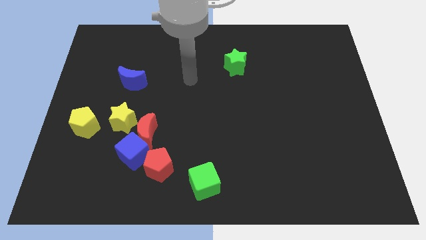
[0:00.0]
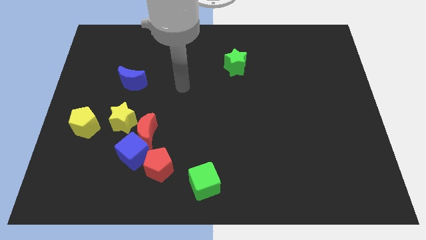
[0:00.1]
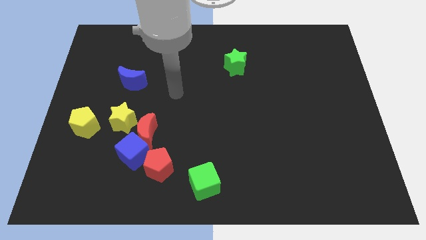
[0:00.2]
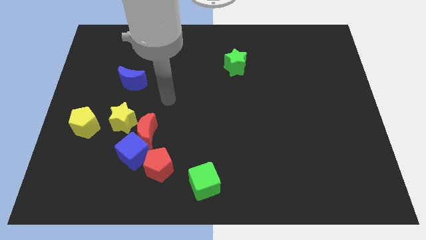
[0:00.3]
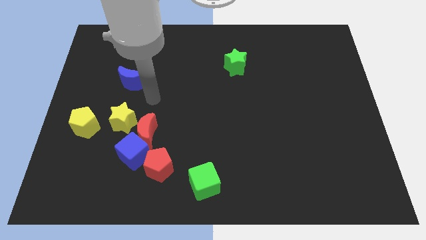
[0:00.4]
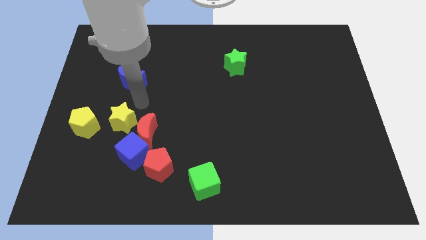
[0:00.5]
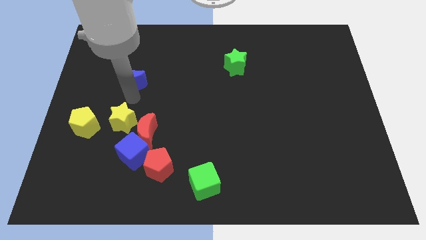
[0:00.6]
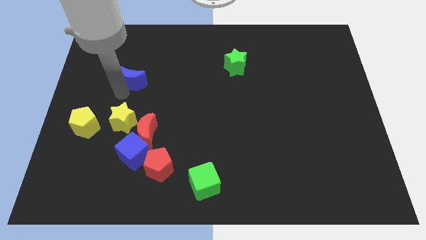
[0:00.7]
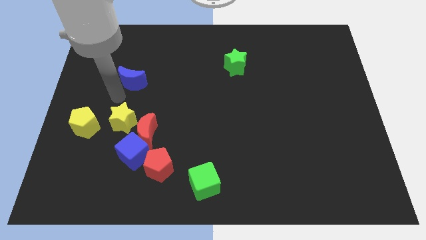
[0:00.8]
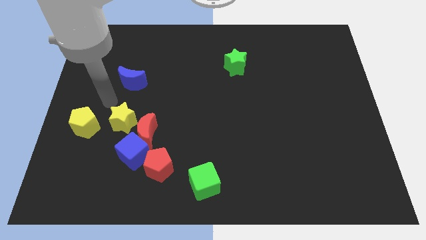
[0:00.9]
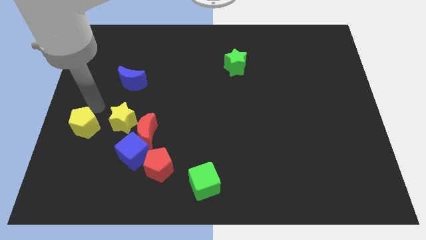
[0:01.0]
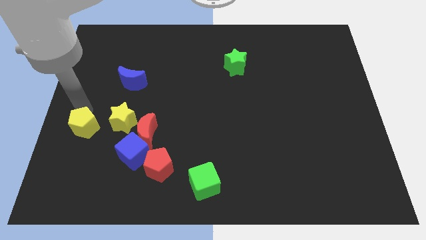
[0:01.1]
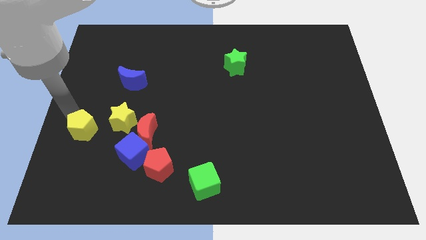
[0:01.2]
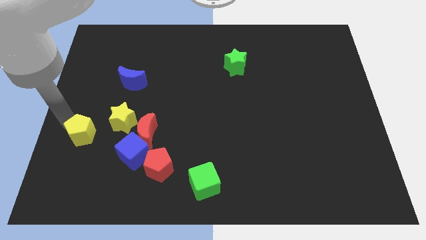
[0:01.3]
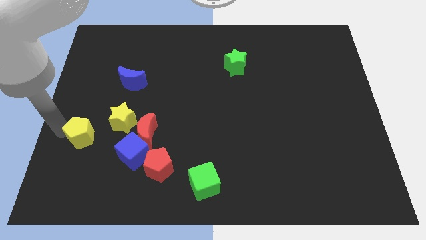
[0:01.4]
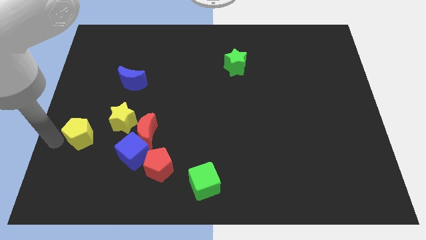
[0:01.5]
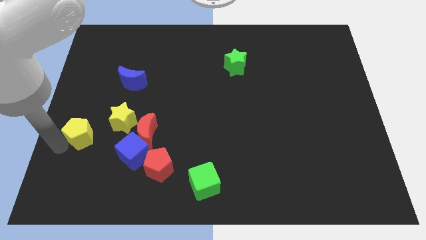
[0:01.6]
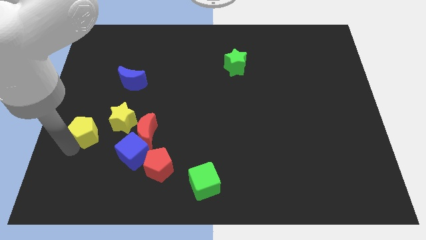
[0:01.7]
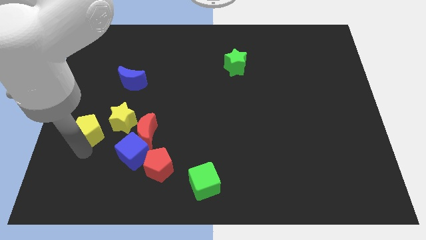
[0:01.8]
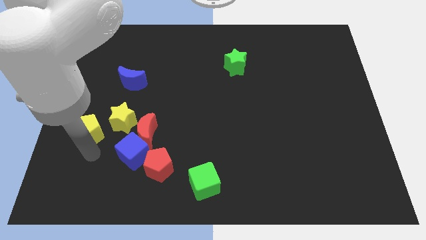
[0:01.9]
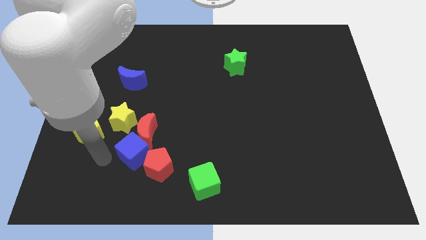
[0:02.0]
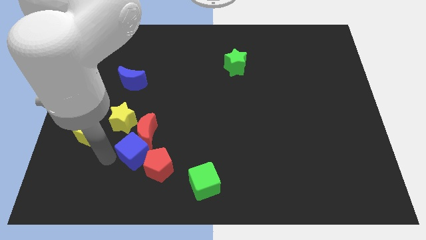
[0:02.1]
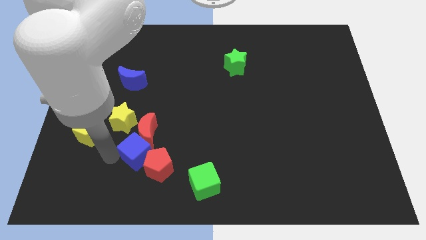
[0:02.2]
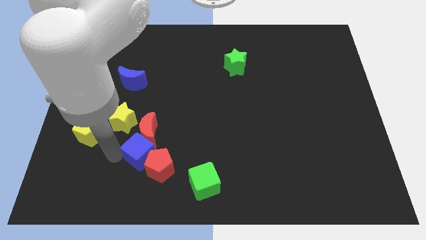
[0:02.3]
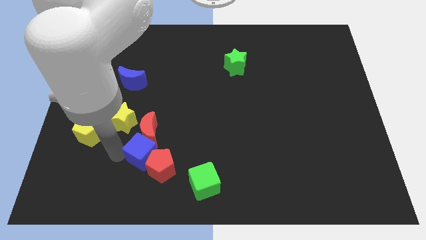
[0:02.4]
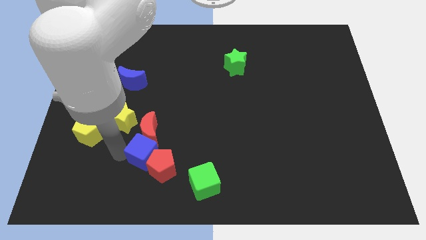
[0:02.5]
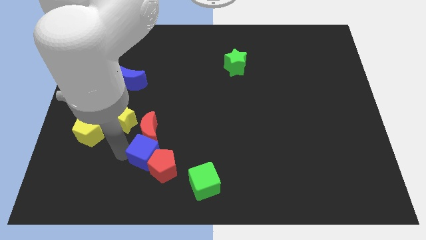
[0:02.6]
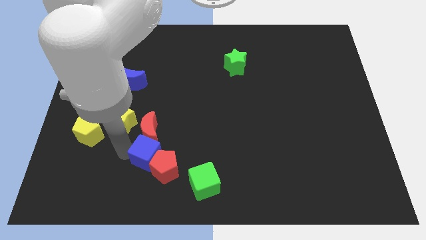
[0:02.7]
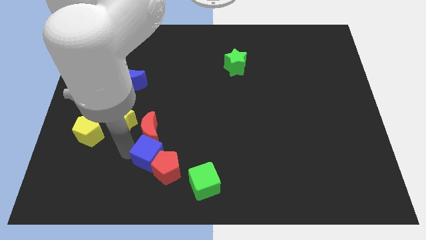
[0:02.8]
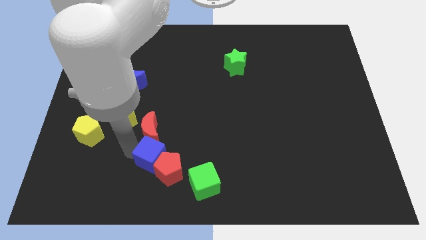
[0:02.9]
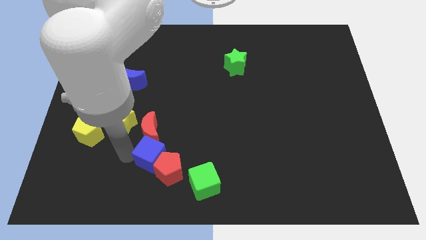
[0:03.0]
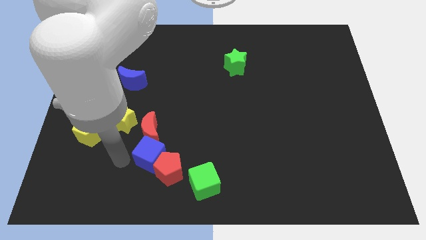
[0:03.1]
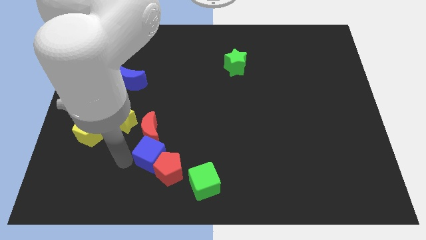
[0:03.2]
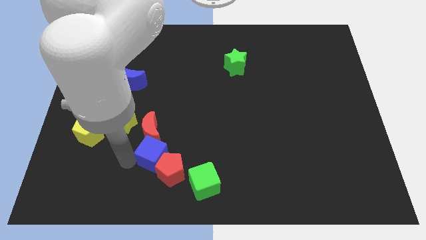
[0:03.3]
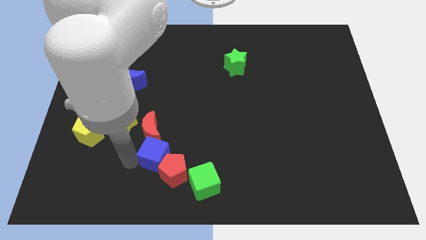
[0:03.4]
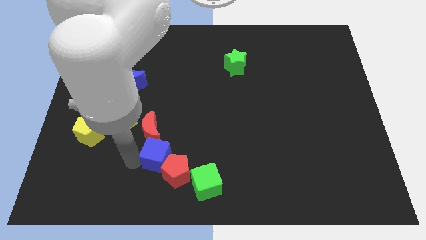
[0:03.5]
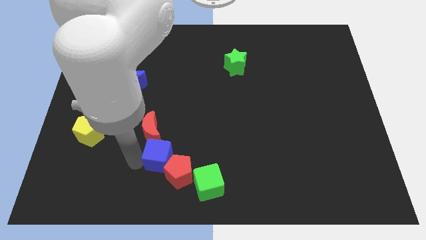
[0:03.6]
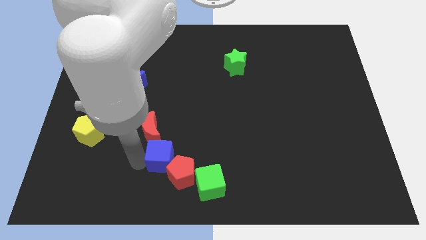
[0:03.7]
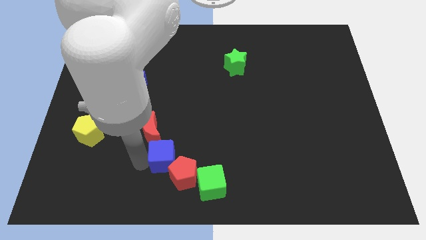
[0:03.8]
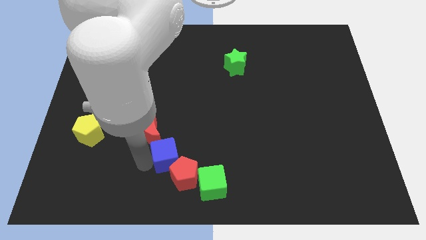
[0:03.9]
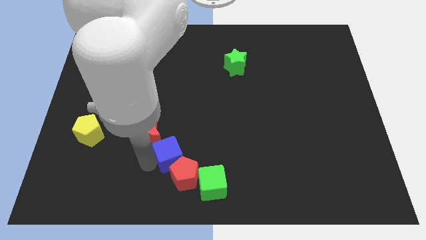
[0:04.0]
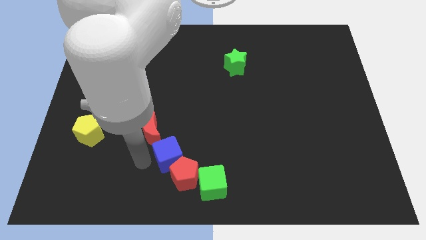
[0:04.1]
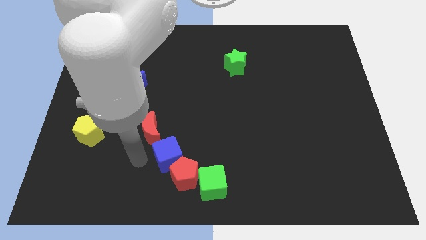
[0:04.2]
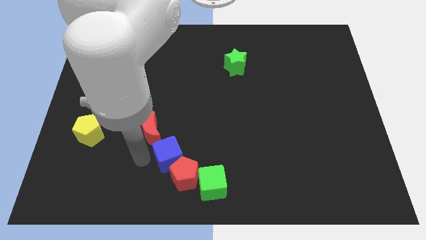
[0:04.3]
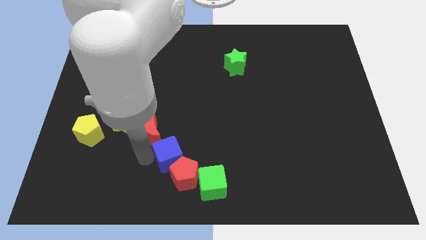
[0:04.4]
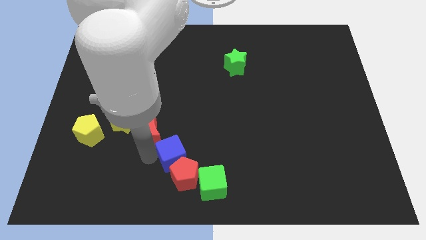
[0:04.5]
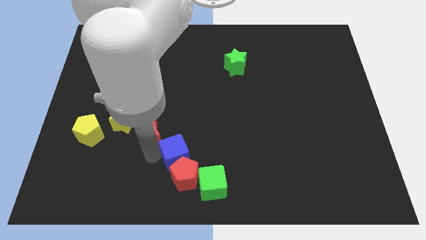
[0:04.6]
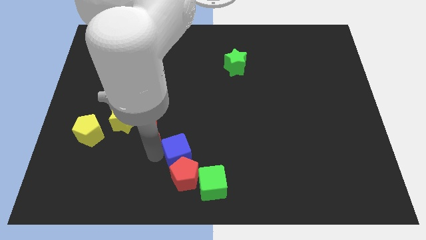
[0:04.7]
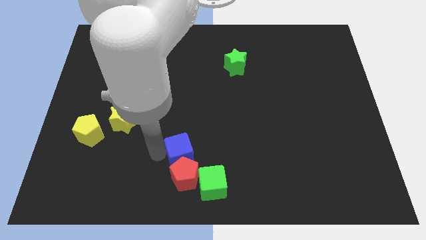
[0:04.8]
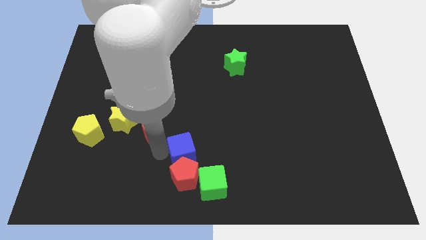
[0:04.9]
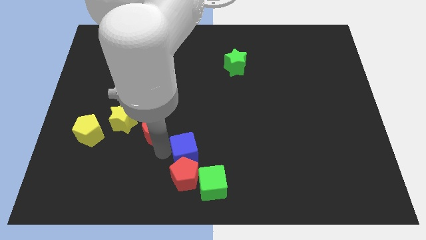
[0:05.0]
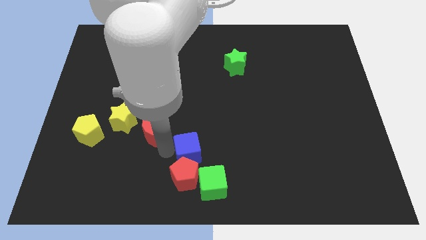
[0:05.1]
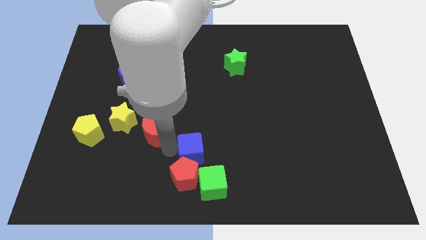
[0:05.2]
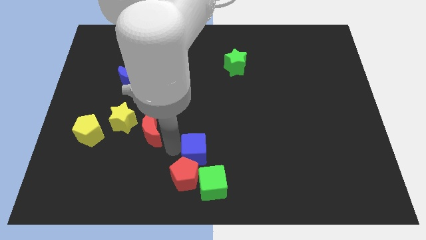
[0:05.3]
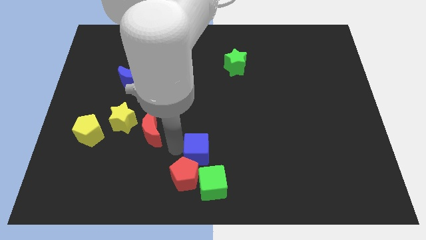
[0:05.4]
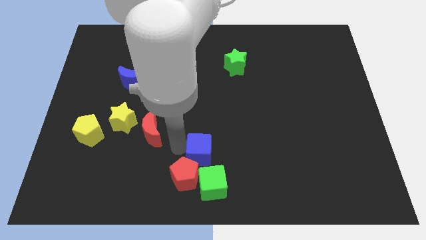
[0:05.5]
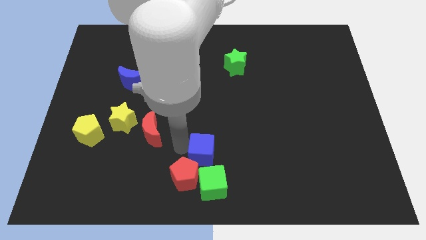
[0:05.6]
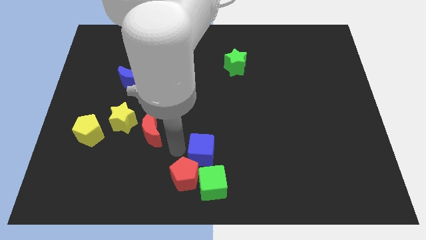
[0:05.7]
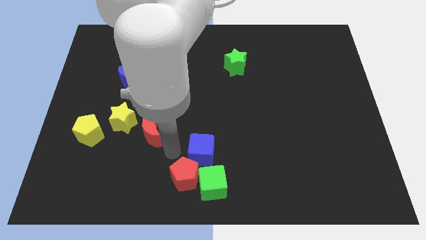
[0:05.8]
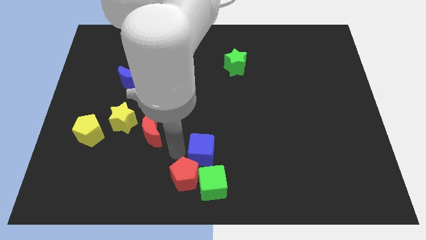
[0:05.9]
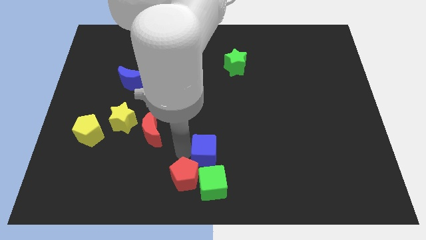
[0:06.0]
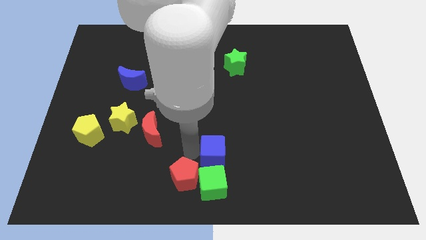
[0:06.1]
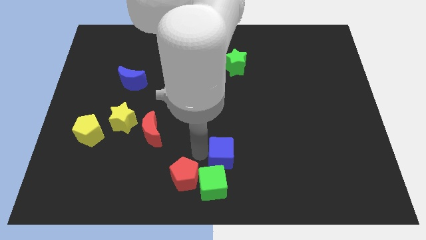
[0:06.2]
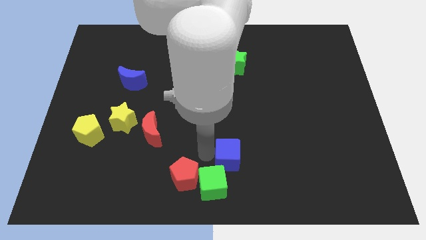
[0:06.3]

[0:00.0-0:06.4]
push the blue cube right

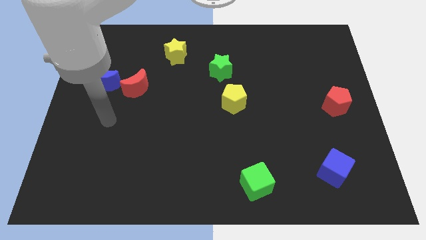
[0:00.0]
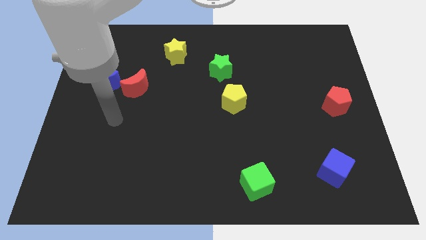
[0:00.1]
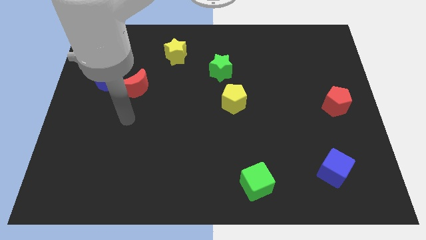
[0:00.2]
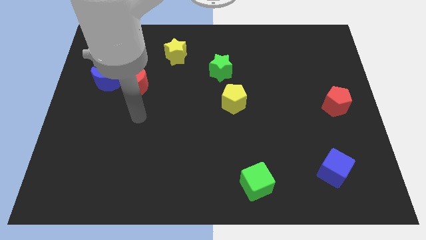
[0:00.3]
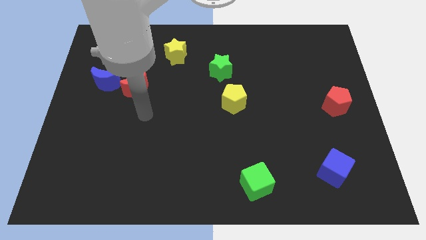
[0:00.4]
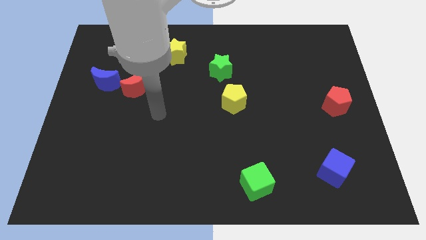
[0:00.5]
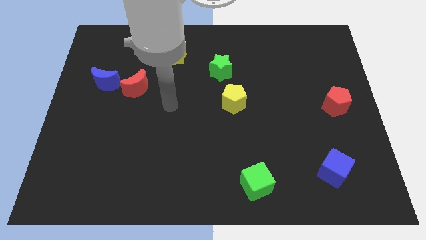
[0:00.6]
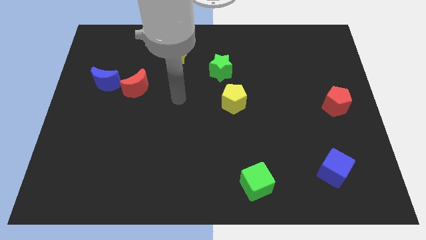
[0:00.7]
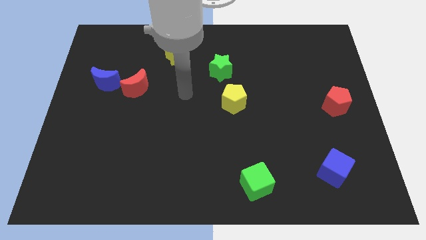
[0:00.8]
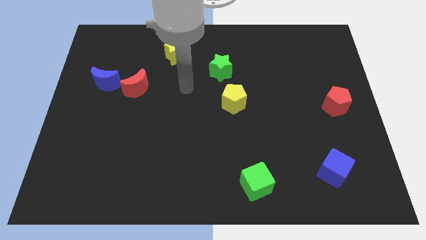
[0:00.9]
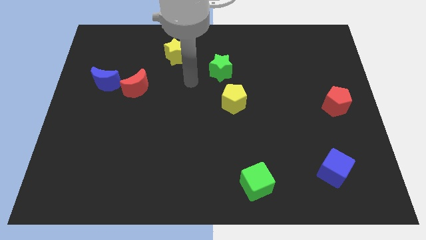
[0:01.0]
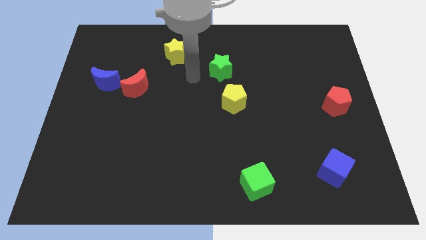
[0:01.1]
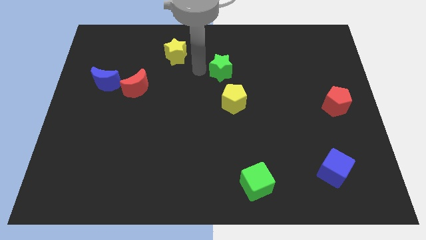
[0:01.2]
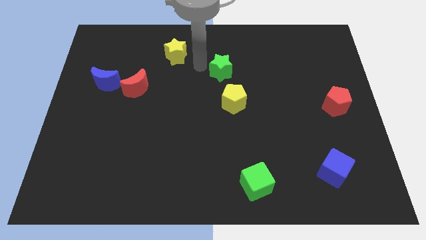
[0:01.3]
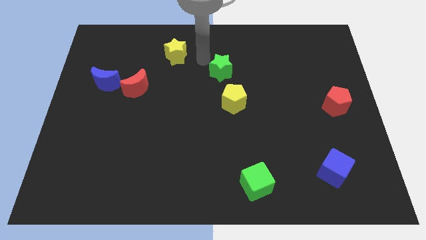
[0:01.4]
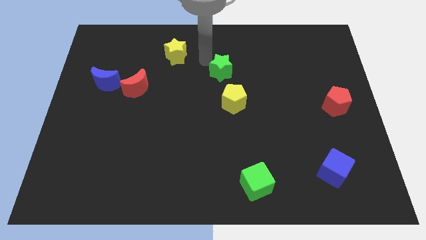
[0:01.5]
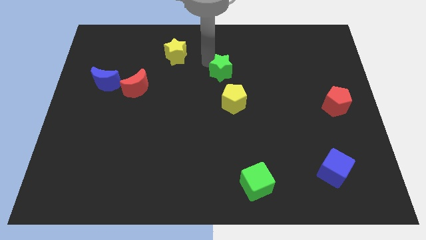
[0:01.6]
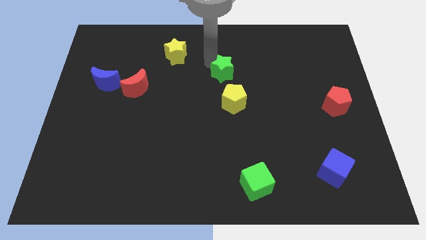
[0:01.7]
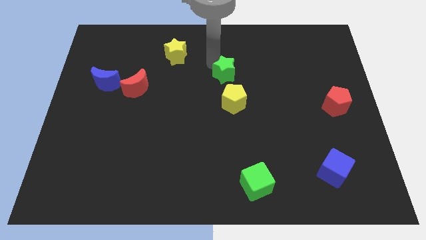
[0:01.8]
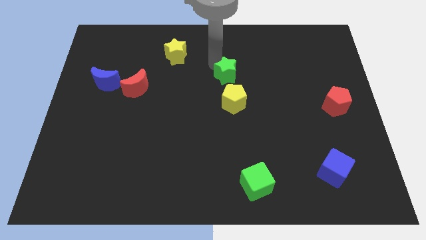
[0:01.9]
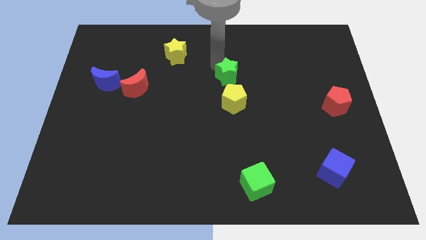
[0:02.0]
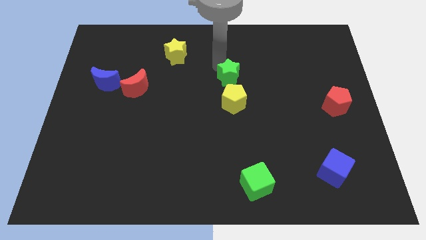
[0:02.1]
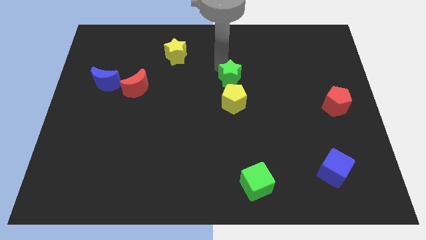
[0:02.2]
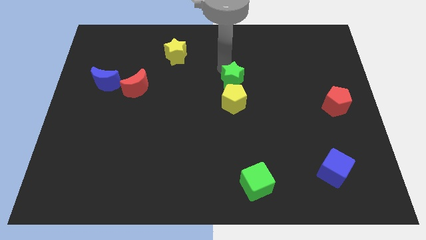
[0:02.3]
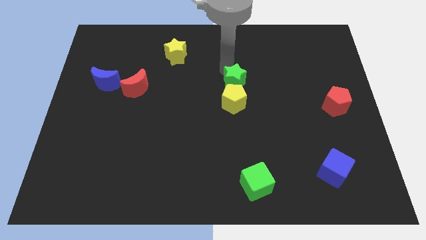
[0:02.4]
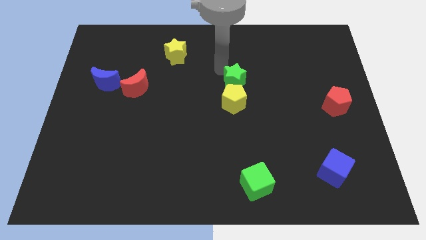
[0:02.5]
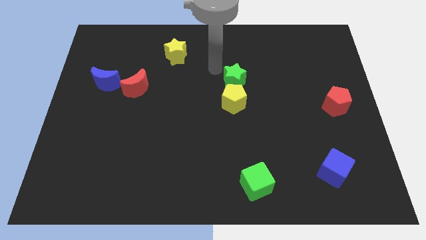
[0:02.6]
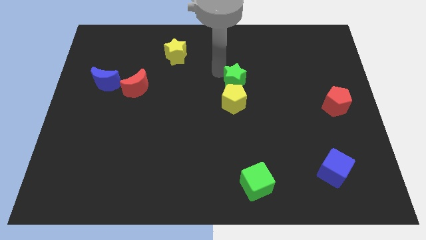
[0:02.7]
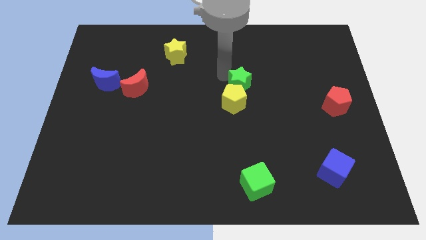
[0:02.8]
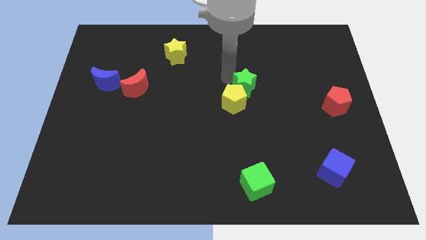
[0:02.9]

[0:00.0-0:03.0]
slightly slide the green star down and then to the right
